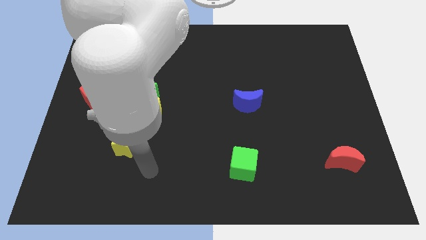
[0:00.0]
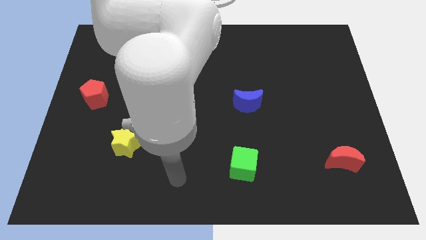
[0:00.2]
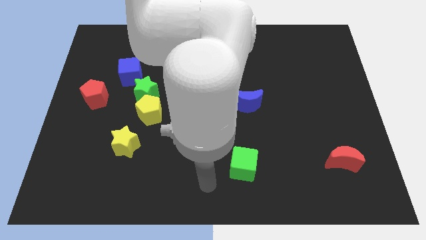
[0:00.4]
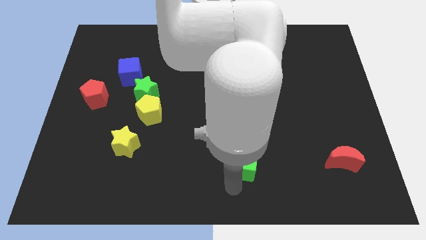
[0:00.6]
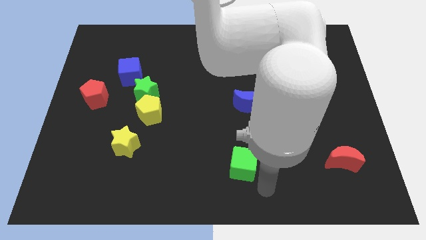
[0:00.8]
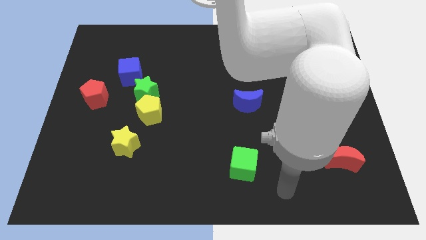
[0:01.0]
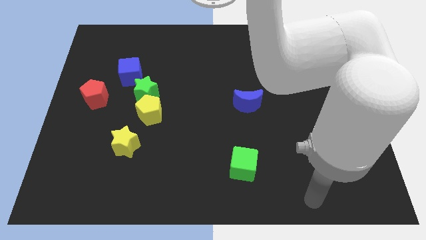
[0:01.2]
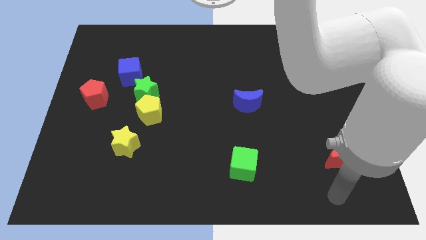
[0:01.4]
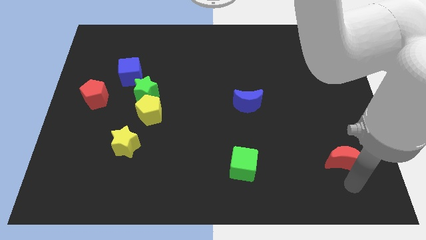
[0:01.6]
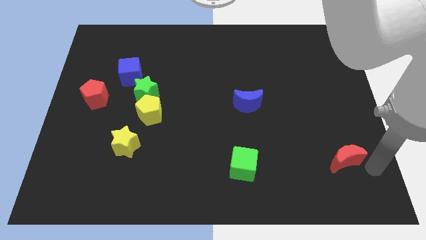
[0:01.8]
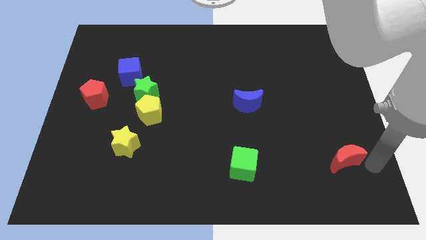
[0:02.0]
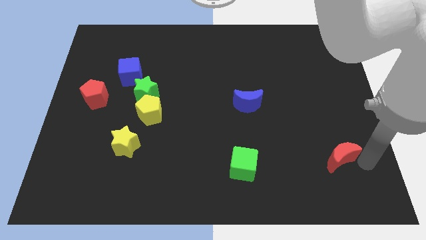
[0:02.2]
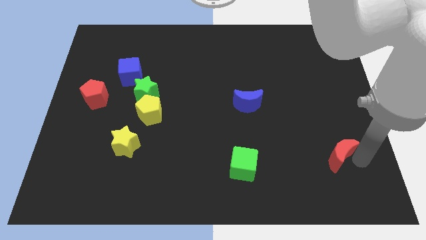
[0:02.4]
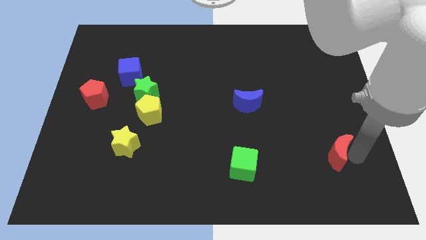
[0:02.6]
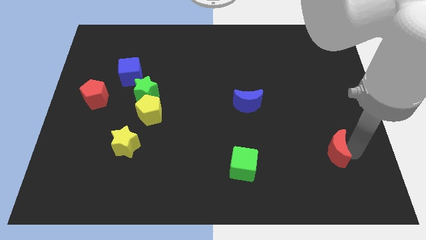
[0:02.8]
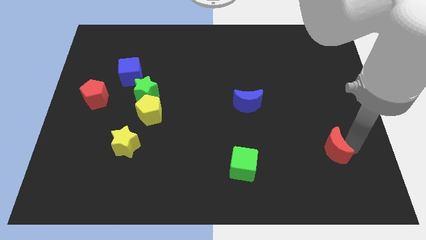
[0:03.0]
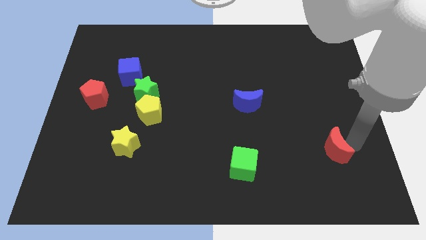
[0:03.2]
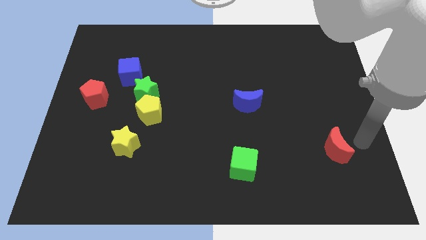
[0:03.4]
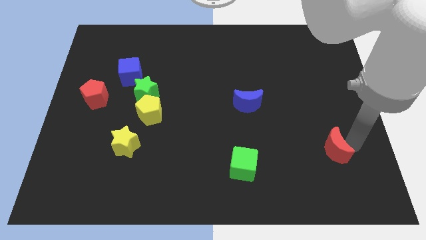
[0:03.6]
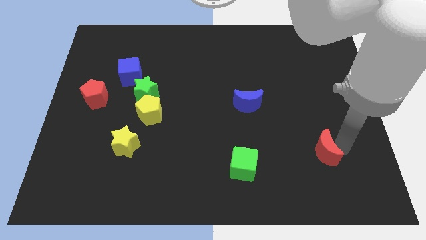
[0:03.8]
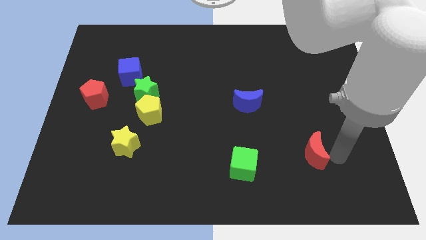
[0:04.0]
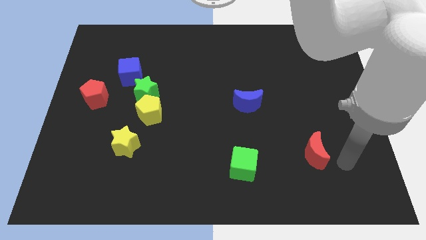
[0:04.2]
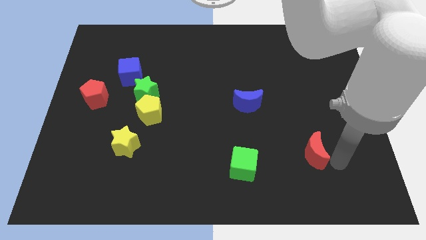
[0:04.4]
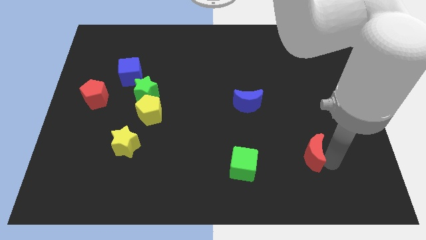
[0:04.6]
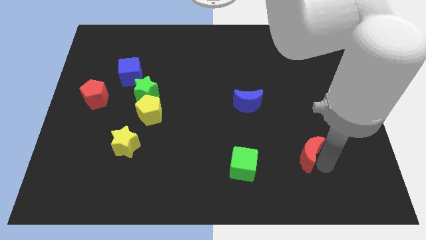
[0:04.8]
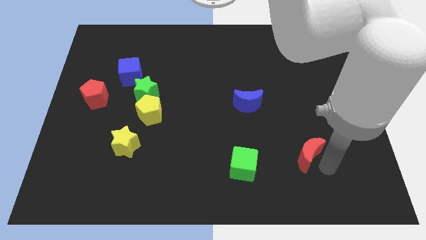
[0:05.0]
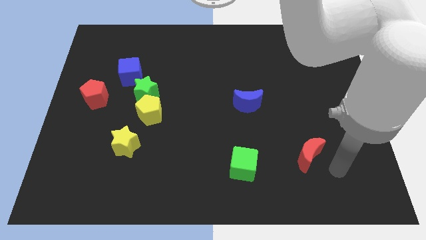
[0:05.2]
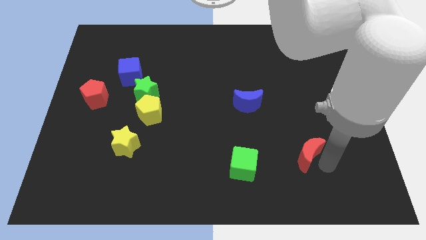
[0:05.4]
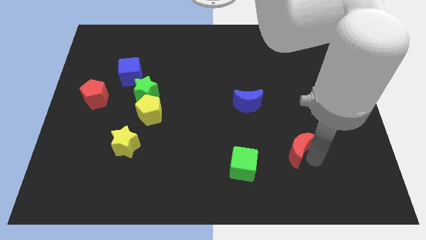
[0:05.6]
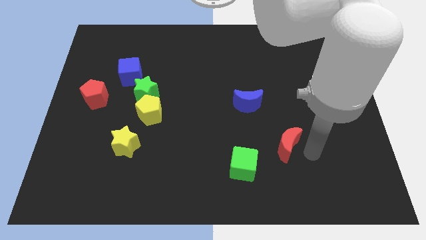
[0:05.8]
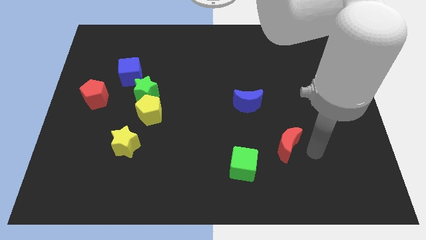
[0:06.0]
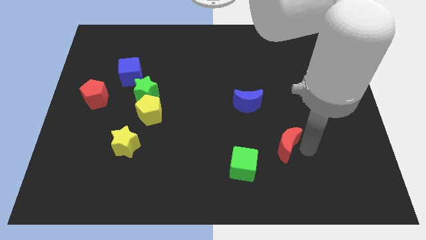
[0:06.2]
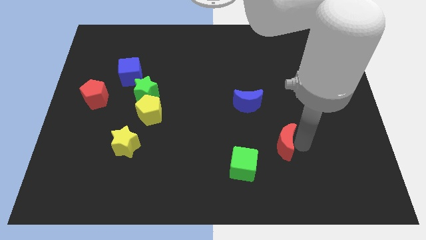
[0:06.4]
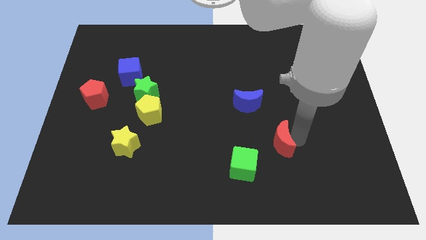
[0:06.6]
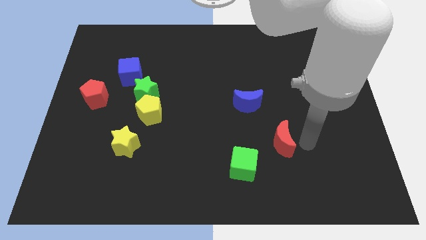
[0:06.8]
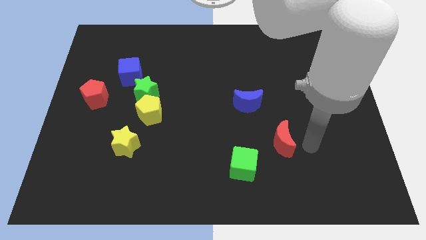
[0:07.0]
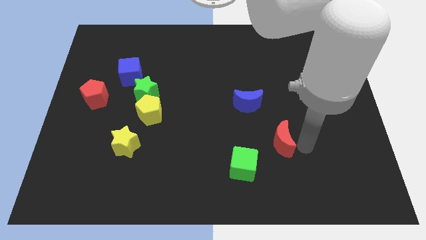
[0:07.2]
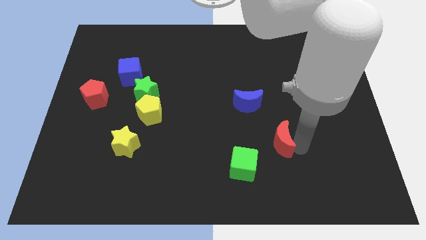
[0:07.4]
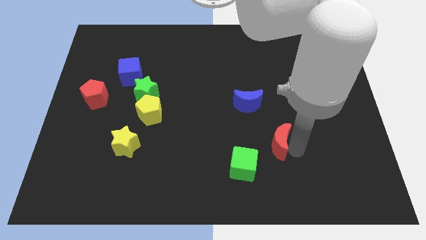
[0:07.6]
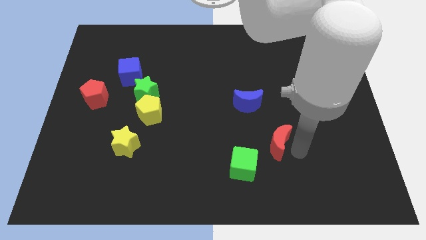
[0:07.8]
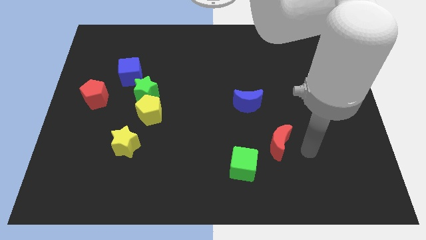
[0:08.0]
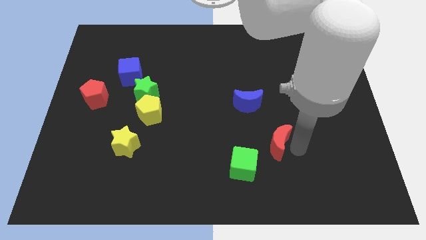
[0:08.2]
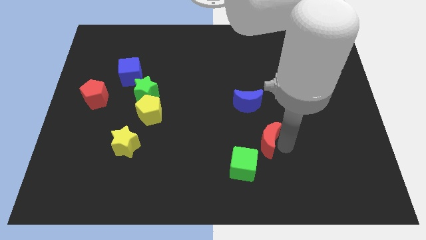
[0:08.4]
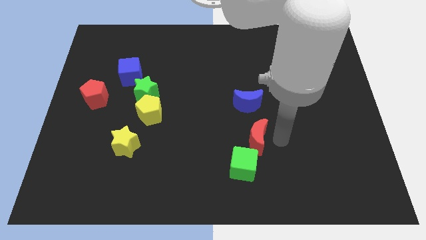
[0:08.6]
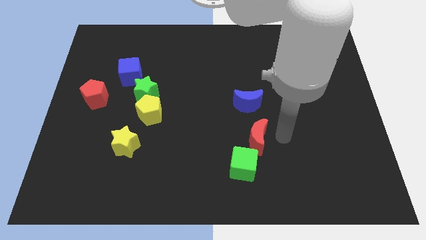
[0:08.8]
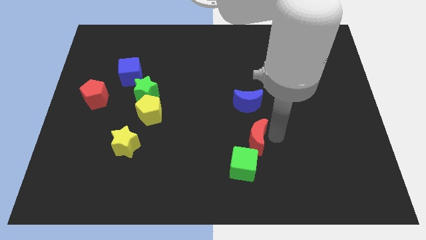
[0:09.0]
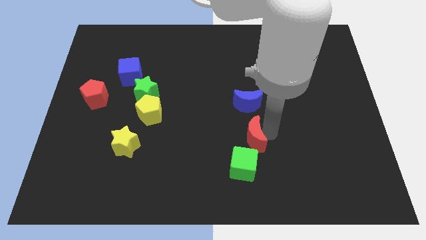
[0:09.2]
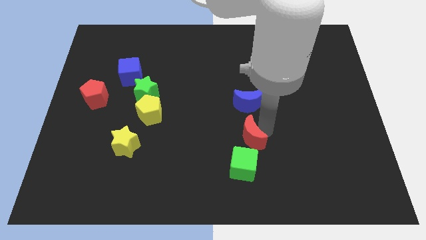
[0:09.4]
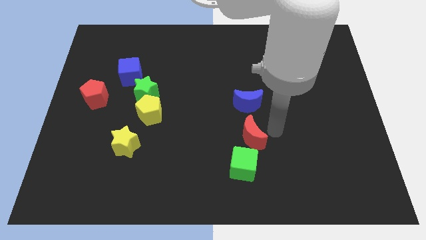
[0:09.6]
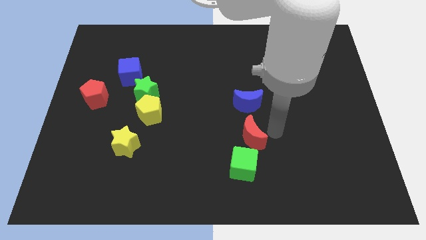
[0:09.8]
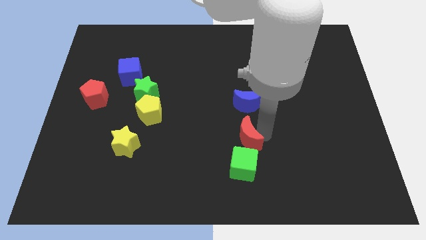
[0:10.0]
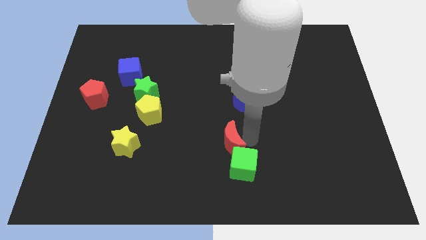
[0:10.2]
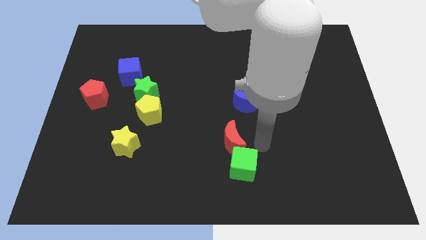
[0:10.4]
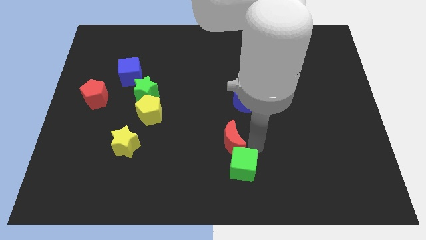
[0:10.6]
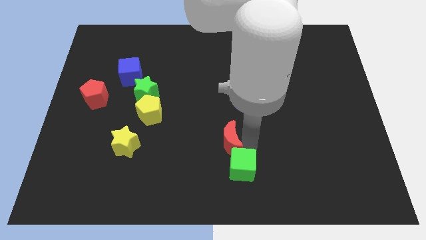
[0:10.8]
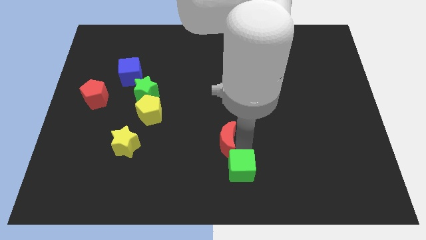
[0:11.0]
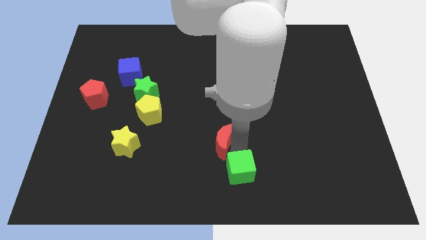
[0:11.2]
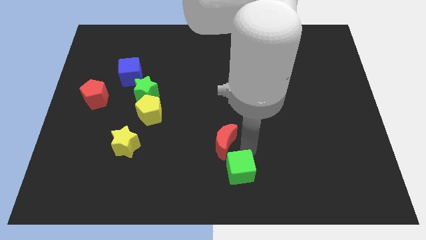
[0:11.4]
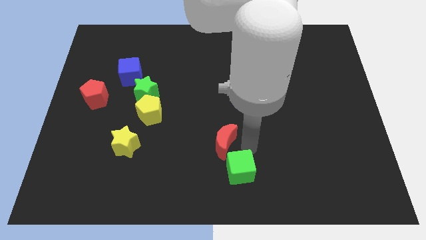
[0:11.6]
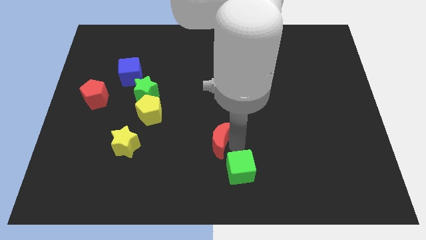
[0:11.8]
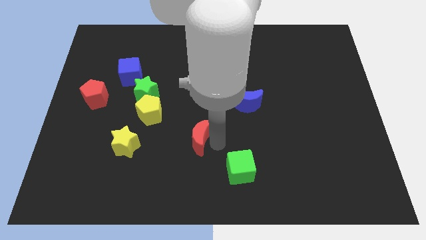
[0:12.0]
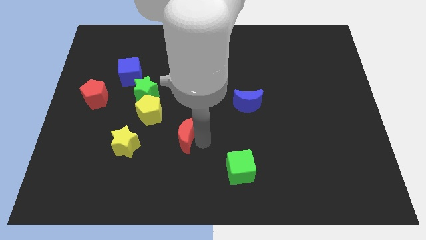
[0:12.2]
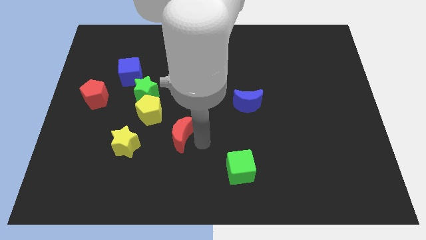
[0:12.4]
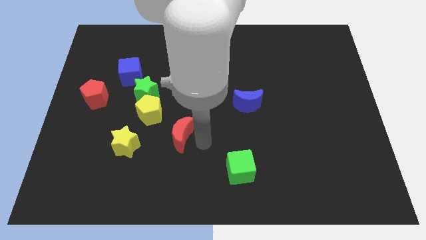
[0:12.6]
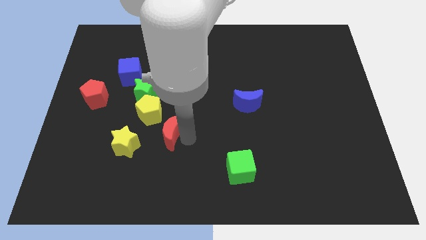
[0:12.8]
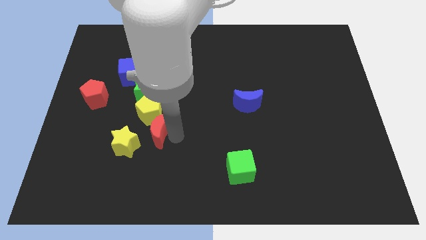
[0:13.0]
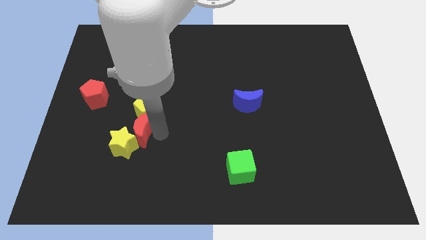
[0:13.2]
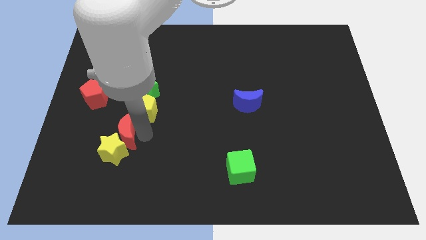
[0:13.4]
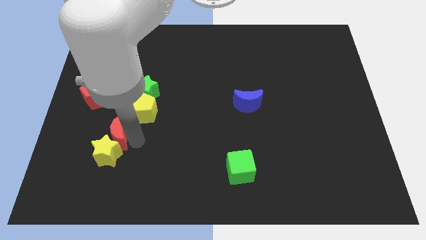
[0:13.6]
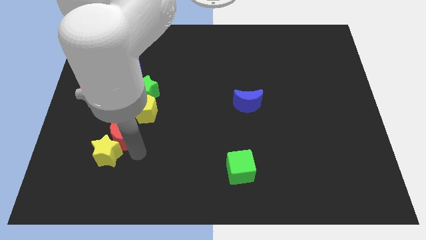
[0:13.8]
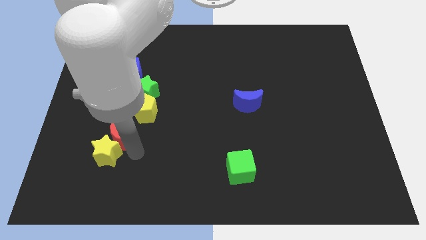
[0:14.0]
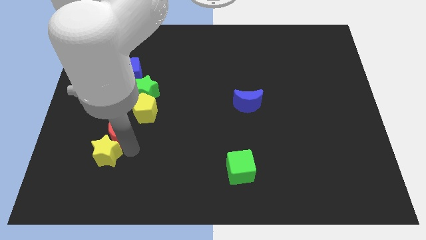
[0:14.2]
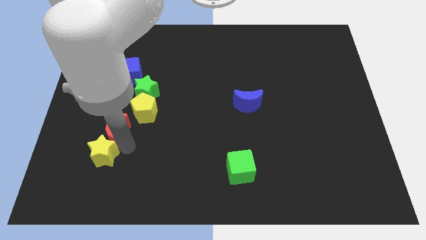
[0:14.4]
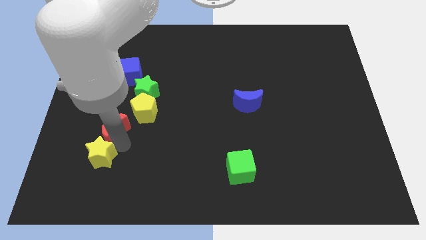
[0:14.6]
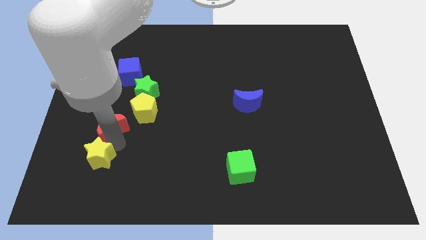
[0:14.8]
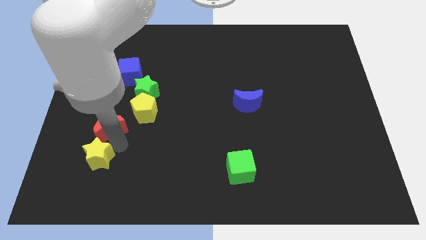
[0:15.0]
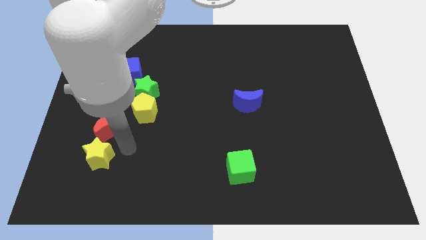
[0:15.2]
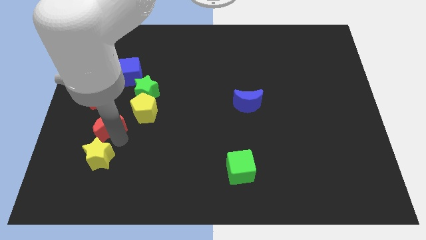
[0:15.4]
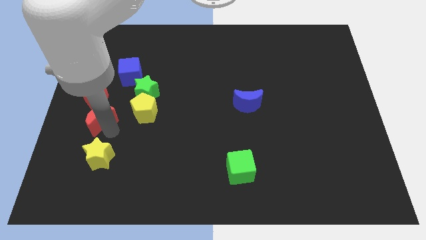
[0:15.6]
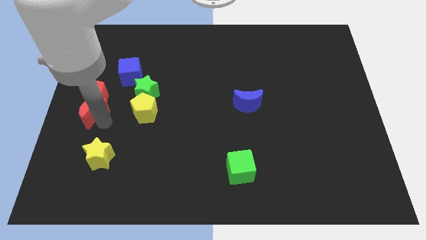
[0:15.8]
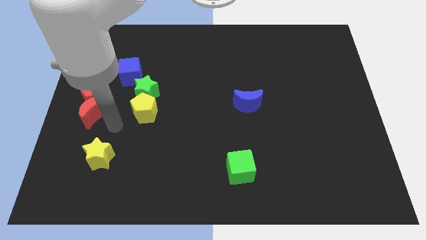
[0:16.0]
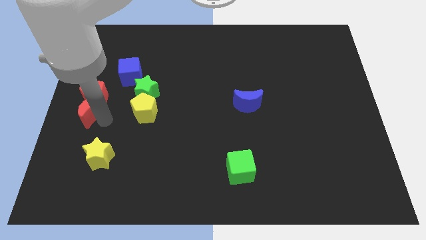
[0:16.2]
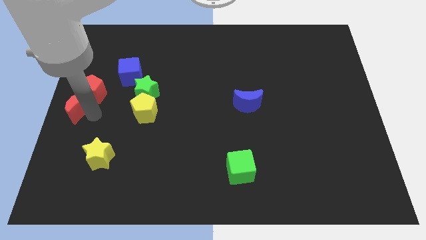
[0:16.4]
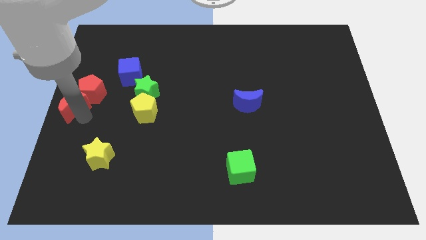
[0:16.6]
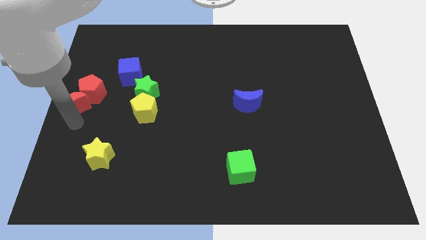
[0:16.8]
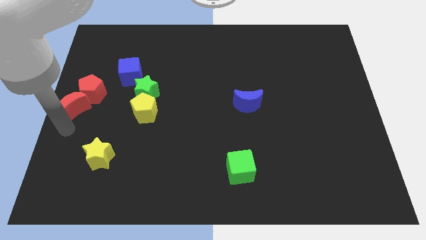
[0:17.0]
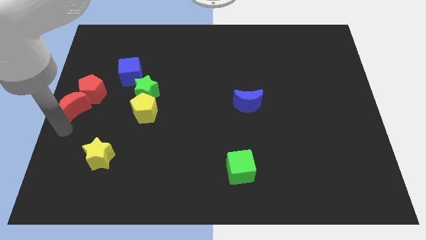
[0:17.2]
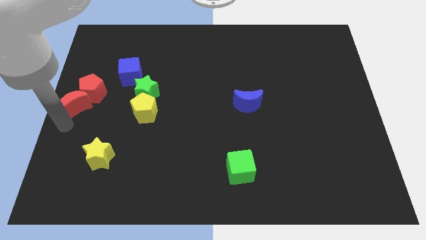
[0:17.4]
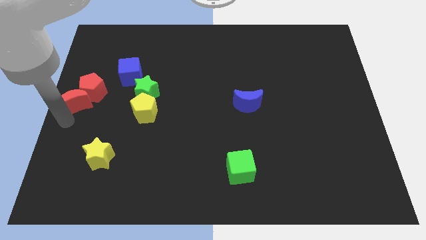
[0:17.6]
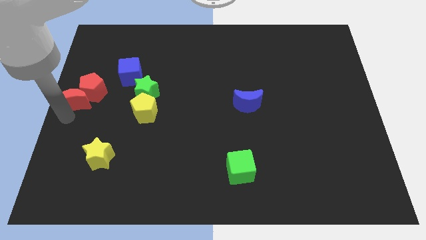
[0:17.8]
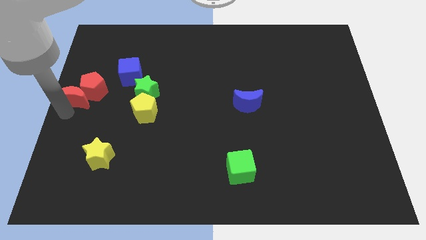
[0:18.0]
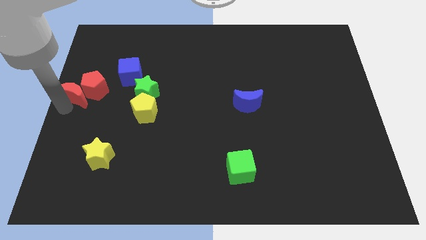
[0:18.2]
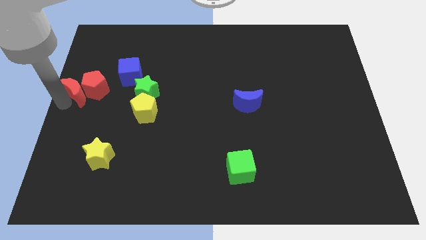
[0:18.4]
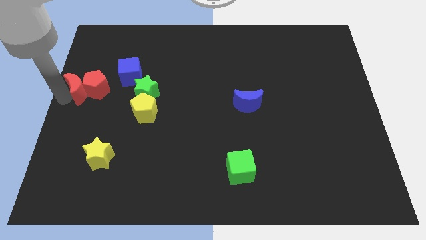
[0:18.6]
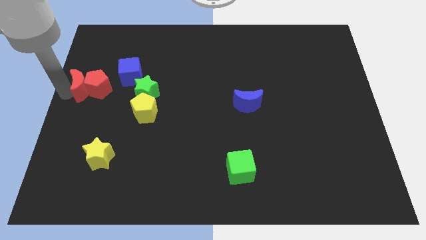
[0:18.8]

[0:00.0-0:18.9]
put the red moon to the left side of the green star
